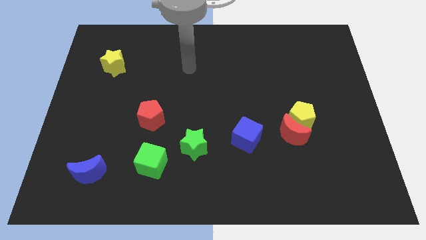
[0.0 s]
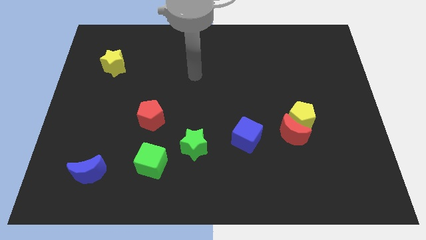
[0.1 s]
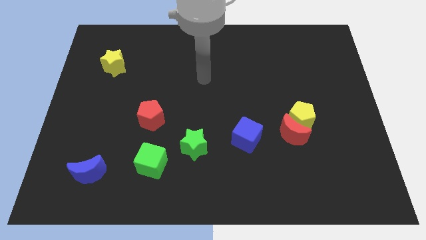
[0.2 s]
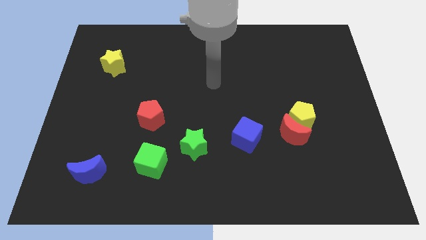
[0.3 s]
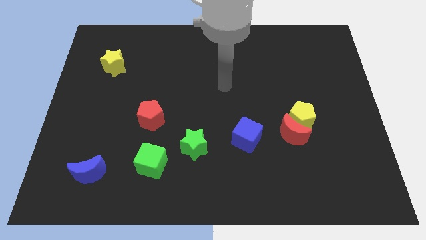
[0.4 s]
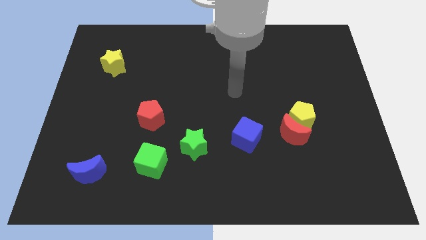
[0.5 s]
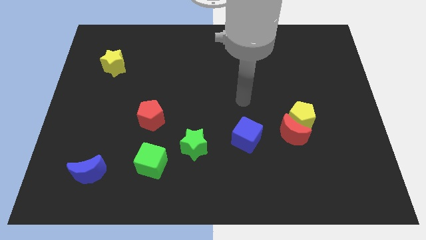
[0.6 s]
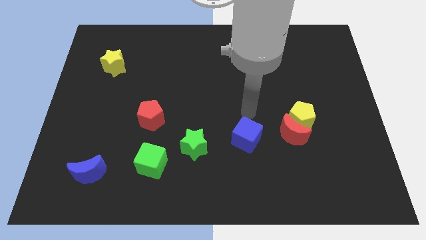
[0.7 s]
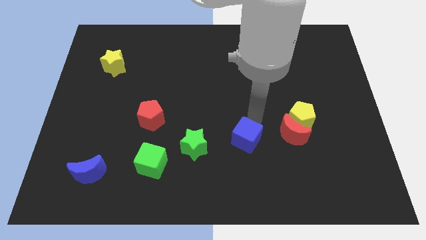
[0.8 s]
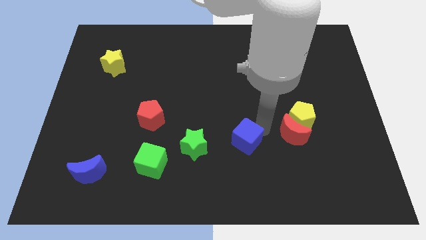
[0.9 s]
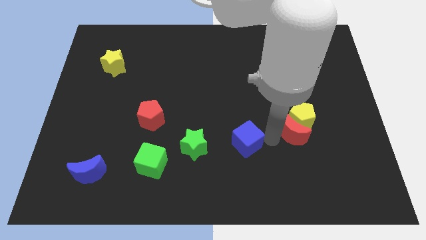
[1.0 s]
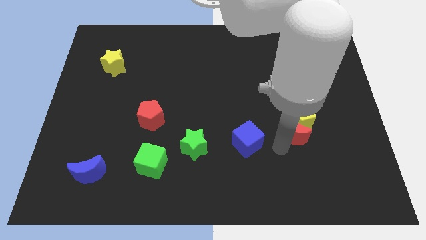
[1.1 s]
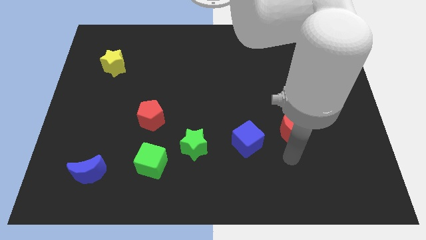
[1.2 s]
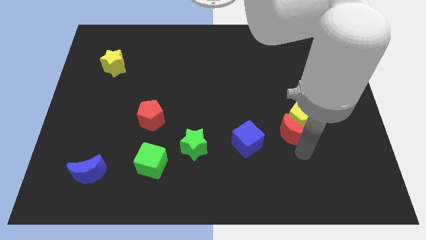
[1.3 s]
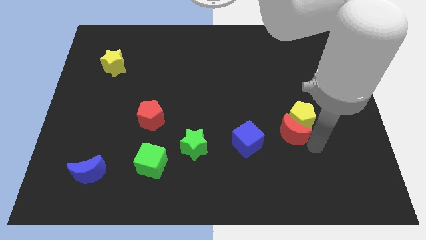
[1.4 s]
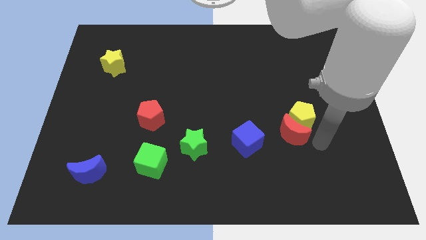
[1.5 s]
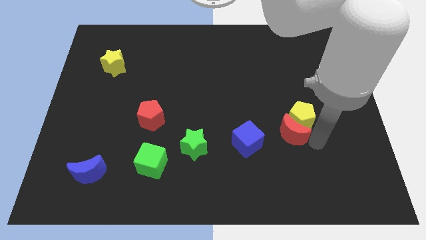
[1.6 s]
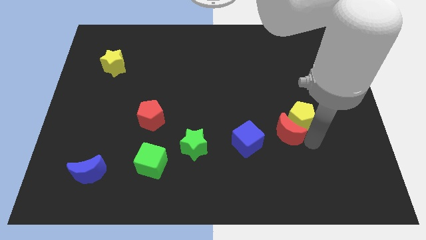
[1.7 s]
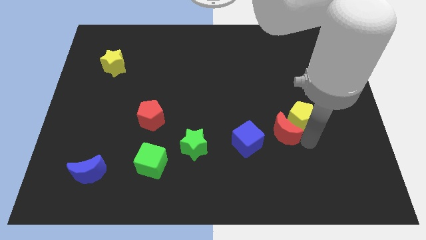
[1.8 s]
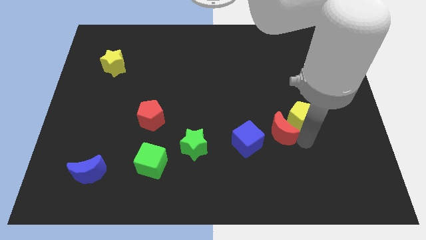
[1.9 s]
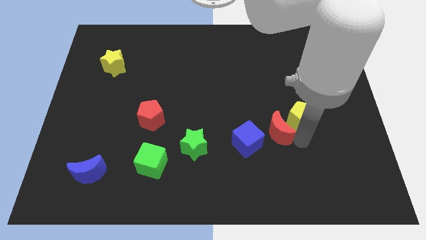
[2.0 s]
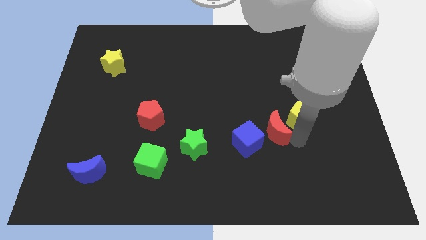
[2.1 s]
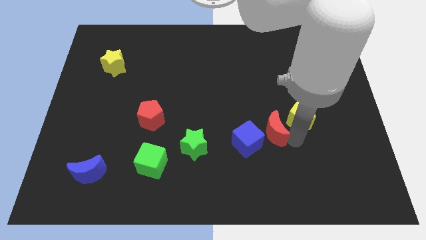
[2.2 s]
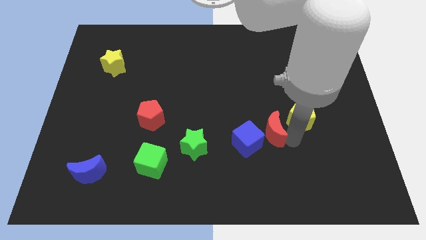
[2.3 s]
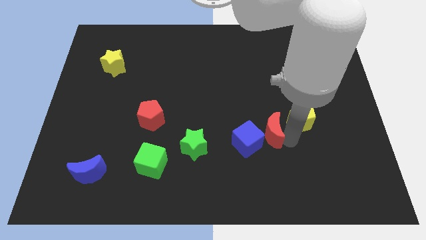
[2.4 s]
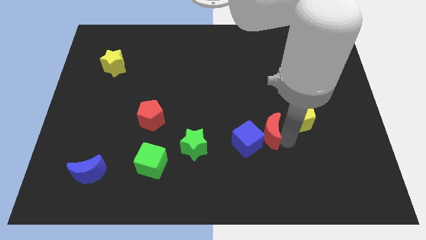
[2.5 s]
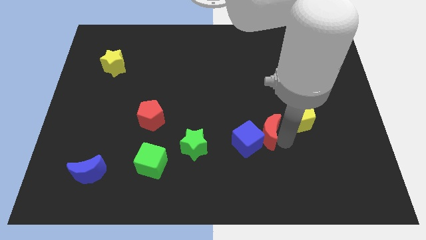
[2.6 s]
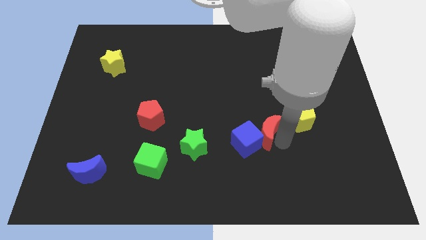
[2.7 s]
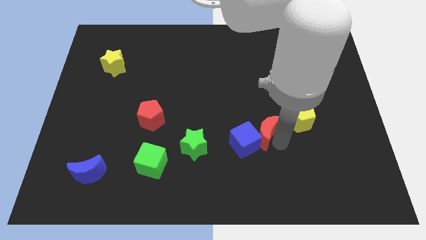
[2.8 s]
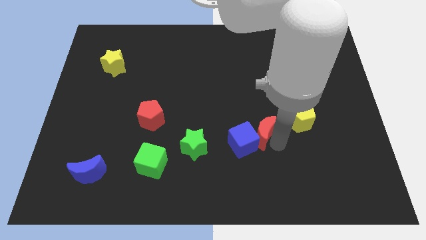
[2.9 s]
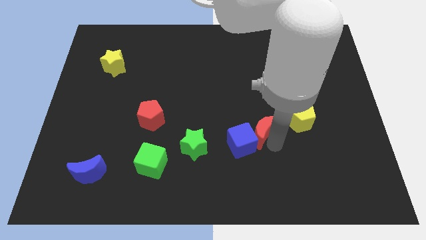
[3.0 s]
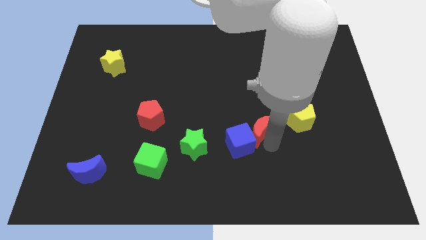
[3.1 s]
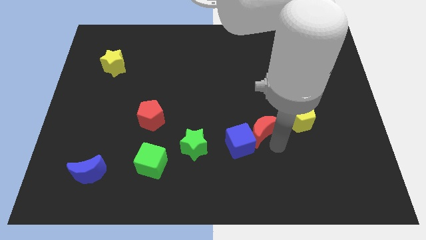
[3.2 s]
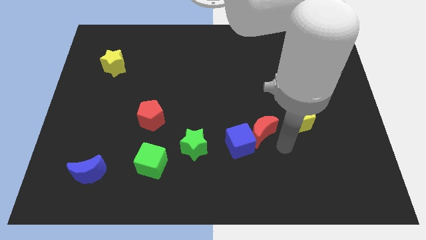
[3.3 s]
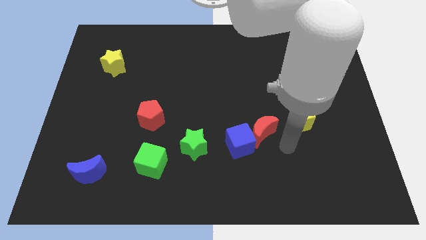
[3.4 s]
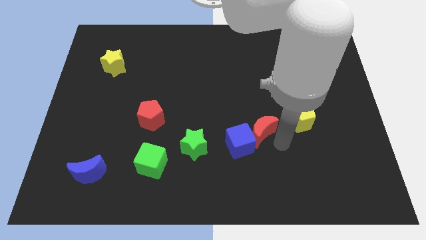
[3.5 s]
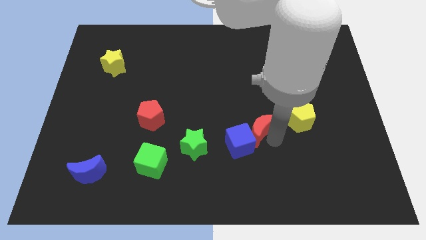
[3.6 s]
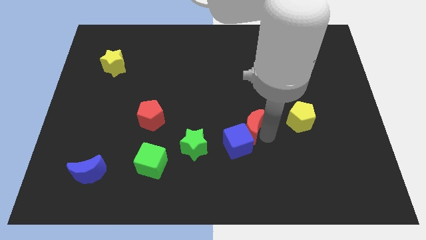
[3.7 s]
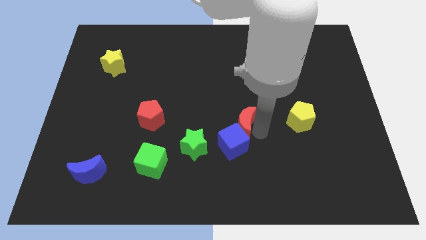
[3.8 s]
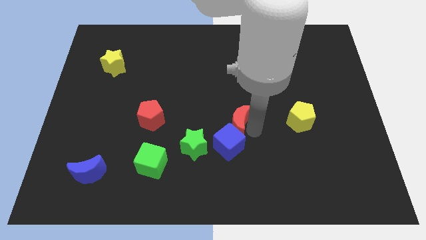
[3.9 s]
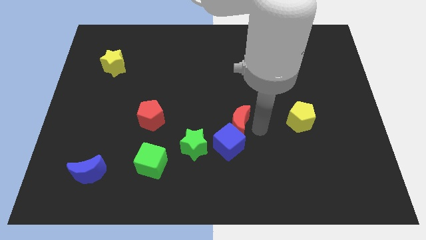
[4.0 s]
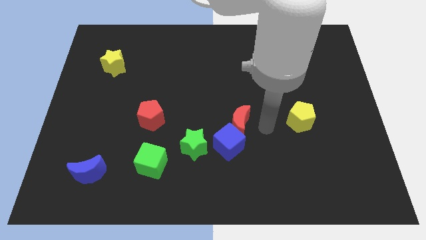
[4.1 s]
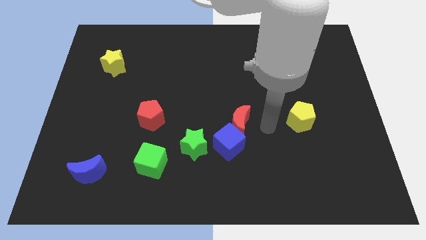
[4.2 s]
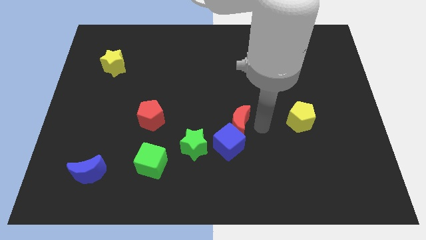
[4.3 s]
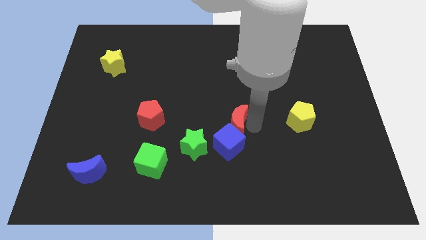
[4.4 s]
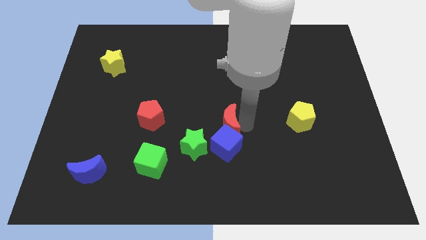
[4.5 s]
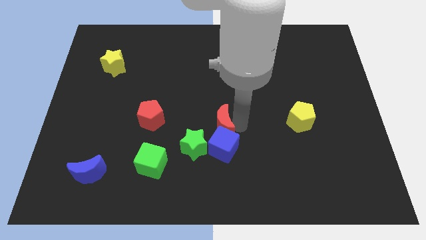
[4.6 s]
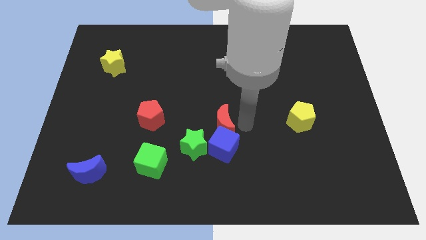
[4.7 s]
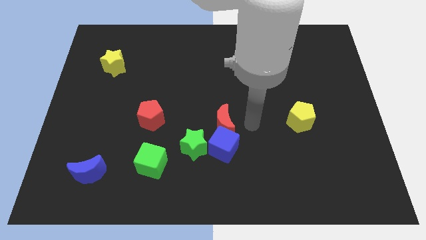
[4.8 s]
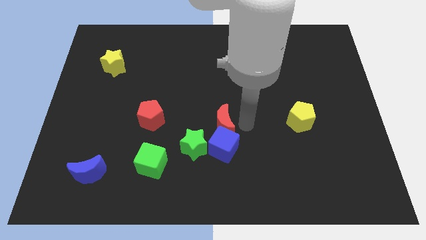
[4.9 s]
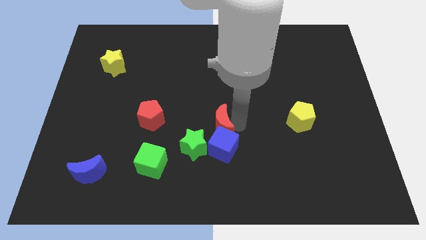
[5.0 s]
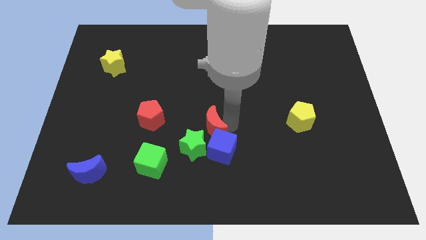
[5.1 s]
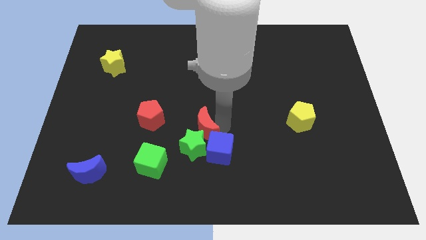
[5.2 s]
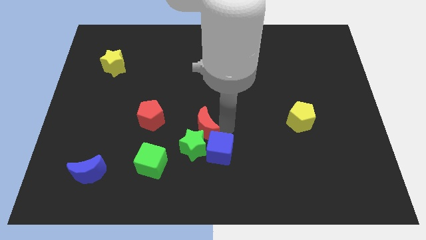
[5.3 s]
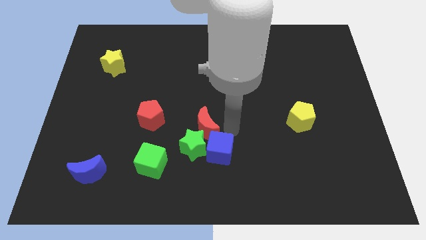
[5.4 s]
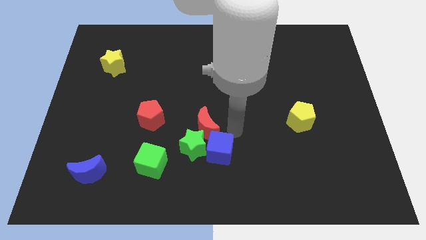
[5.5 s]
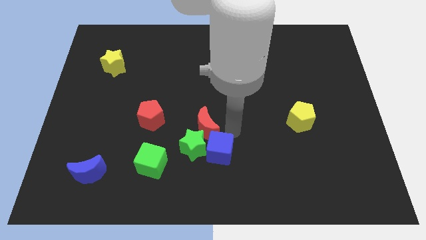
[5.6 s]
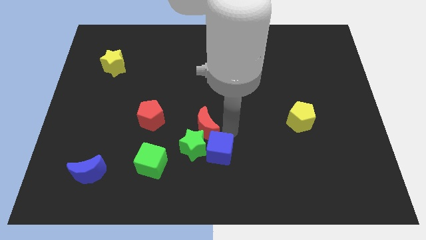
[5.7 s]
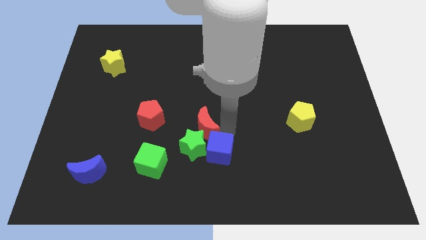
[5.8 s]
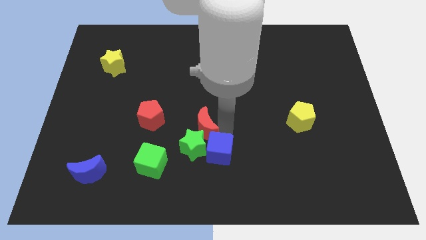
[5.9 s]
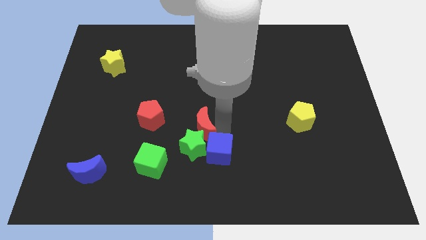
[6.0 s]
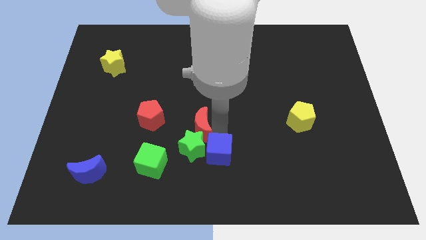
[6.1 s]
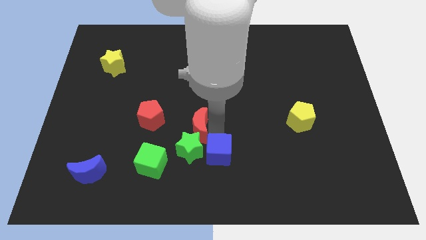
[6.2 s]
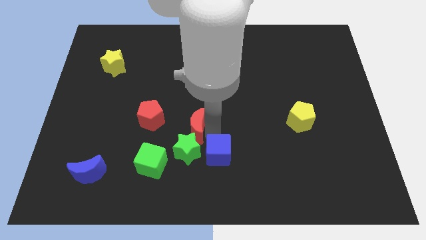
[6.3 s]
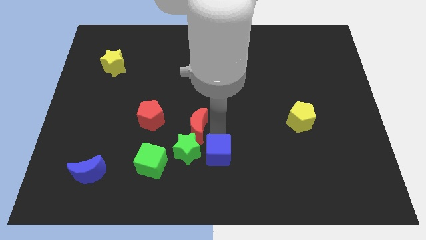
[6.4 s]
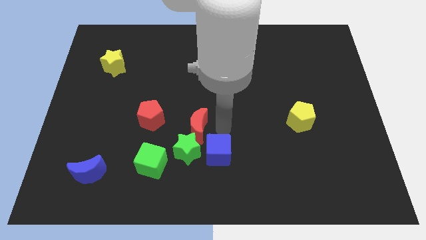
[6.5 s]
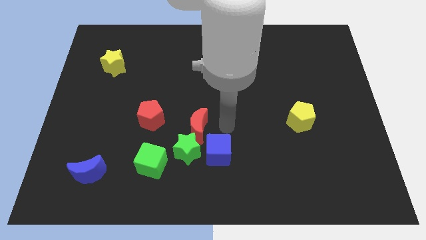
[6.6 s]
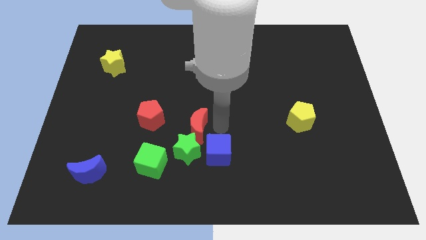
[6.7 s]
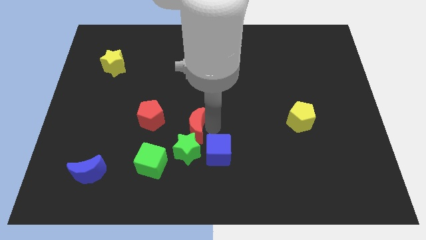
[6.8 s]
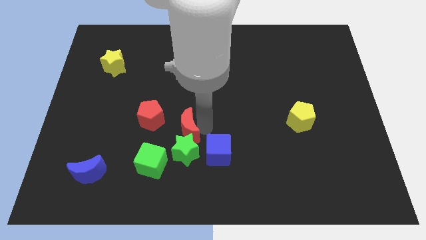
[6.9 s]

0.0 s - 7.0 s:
put the red moon to the top left of the green star

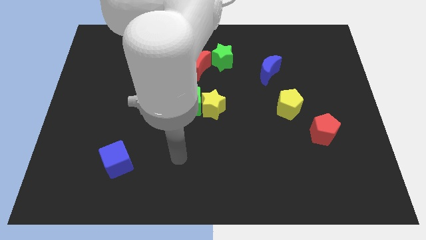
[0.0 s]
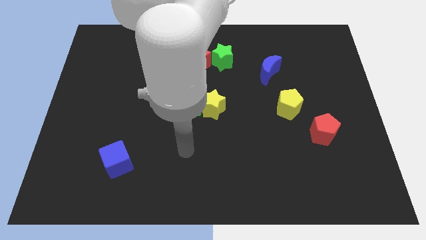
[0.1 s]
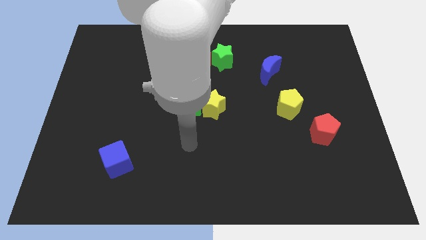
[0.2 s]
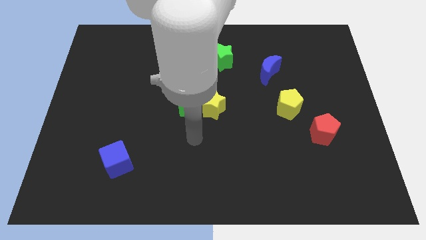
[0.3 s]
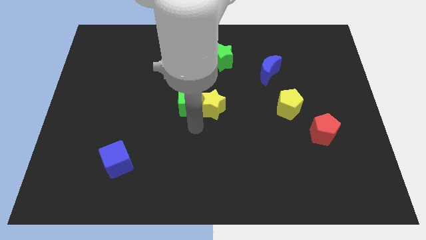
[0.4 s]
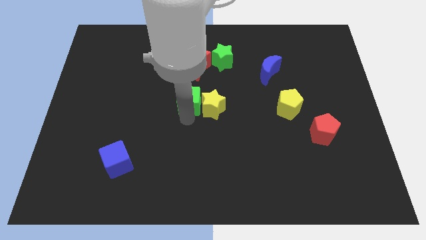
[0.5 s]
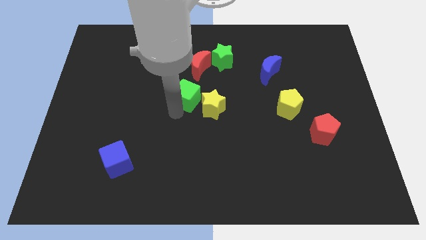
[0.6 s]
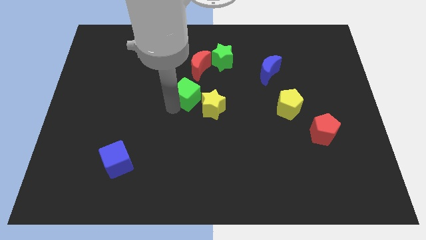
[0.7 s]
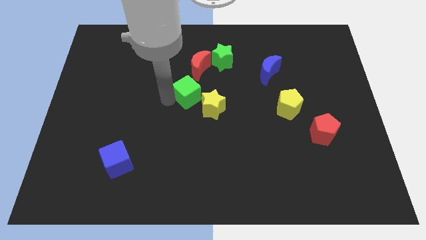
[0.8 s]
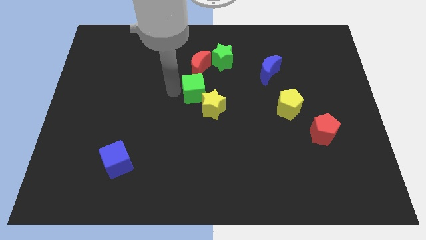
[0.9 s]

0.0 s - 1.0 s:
push the green star diagonally up and to the right of the green cube
